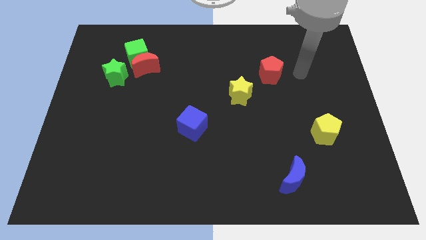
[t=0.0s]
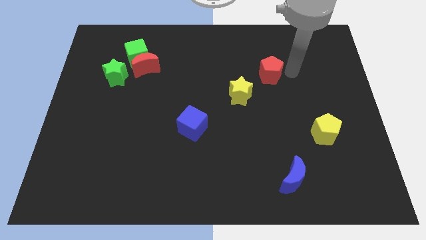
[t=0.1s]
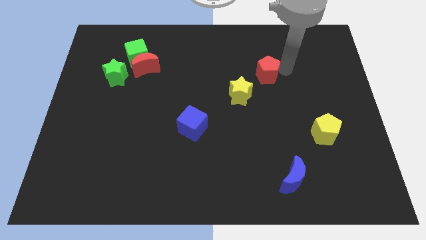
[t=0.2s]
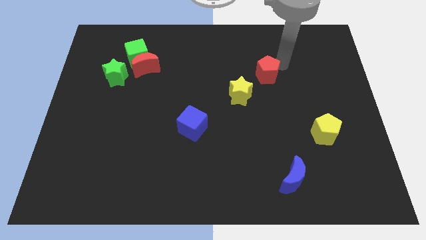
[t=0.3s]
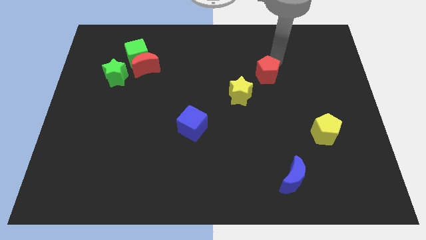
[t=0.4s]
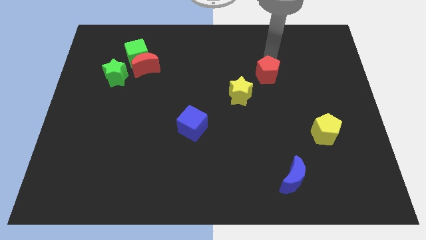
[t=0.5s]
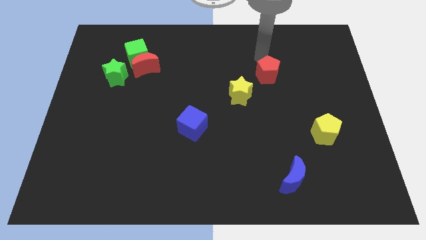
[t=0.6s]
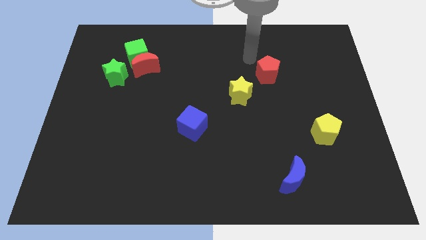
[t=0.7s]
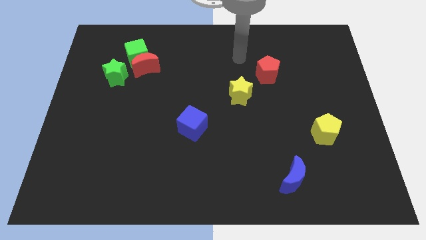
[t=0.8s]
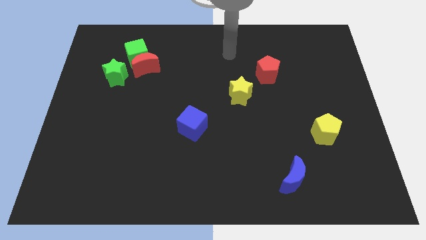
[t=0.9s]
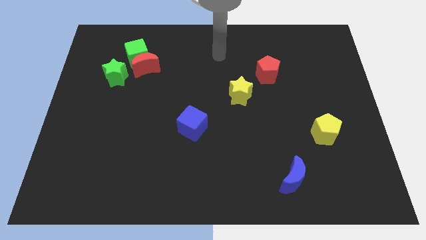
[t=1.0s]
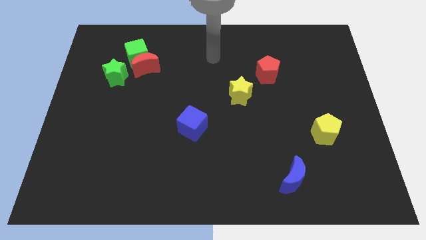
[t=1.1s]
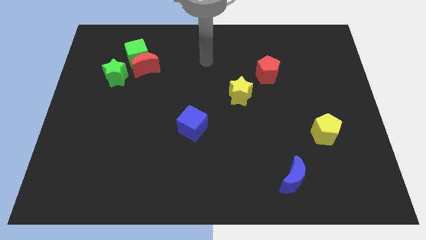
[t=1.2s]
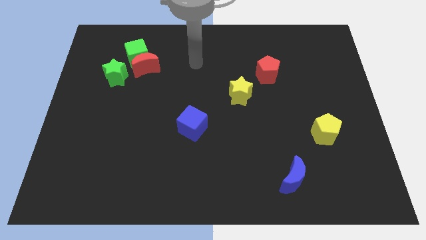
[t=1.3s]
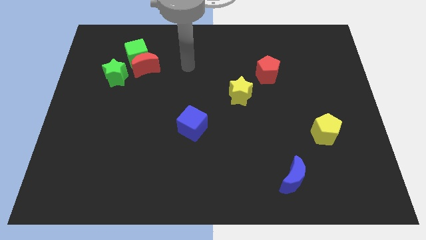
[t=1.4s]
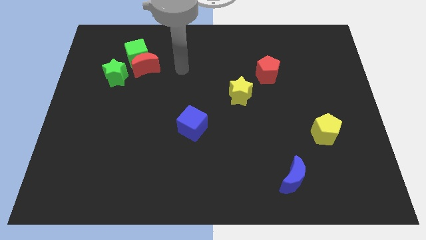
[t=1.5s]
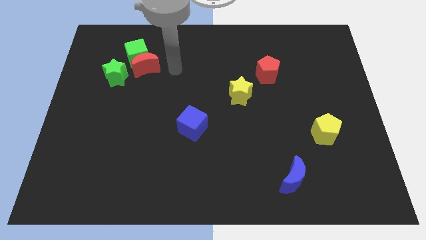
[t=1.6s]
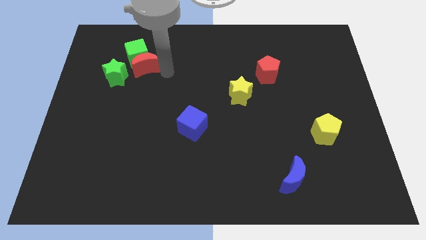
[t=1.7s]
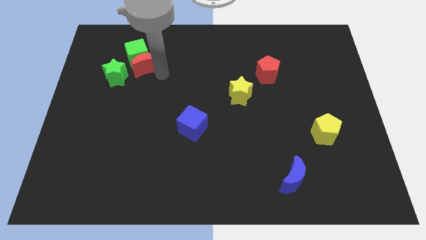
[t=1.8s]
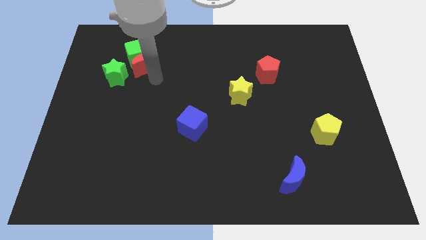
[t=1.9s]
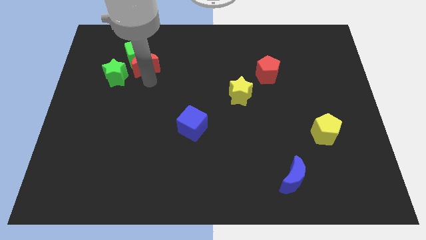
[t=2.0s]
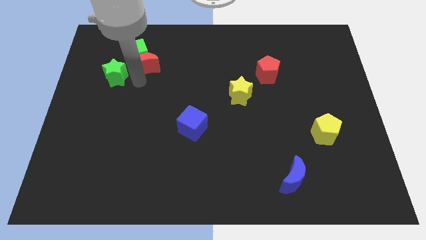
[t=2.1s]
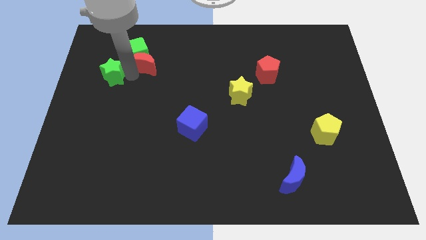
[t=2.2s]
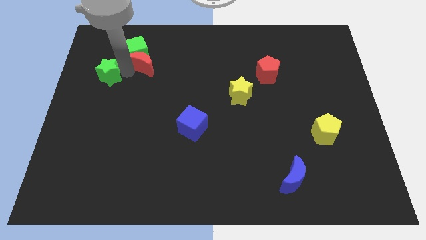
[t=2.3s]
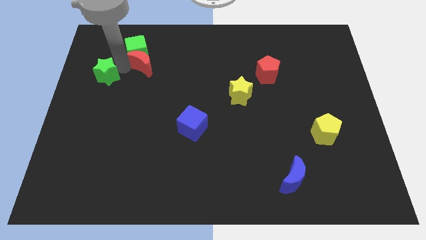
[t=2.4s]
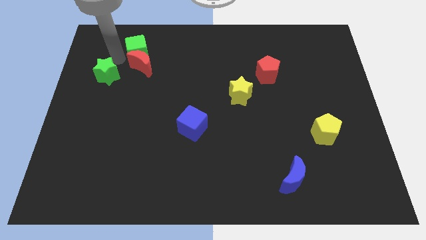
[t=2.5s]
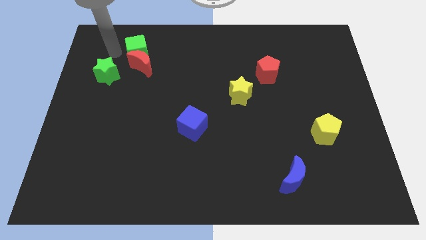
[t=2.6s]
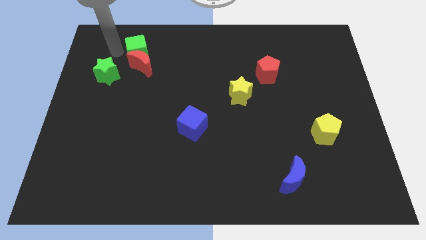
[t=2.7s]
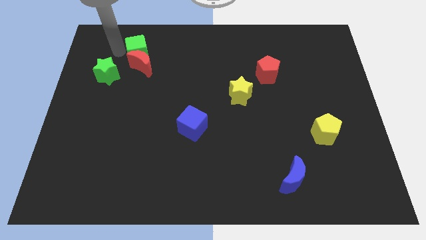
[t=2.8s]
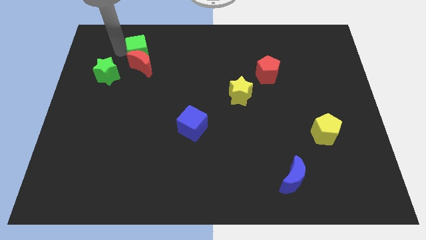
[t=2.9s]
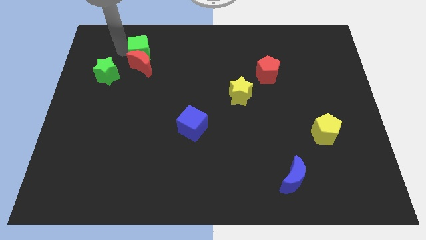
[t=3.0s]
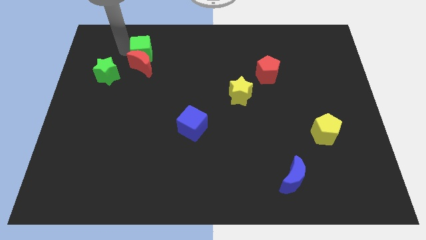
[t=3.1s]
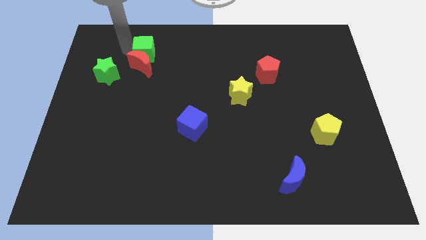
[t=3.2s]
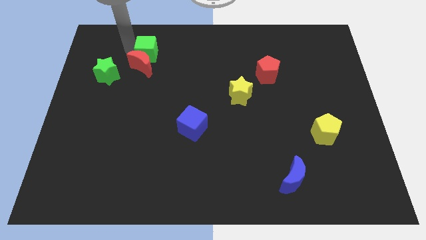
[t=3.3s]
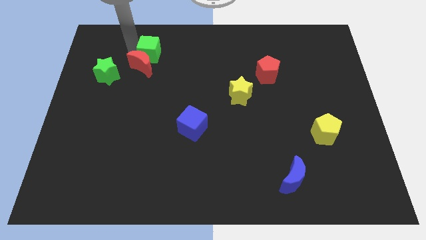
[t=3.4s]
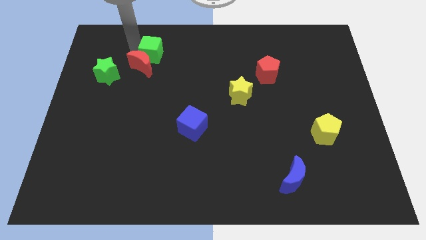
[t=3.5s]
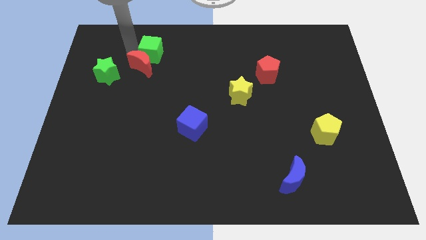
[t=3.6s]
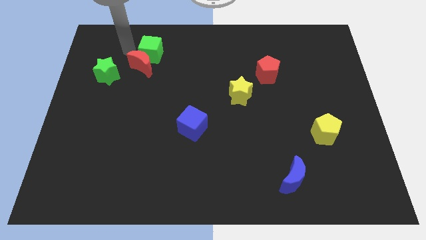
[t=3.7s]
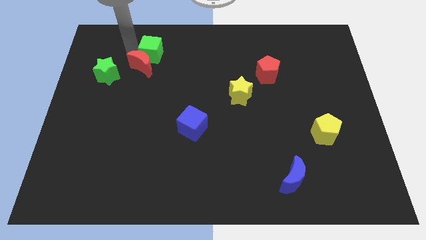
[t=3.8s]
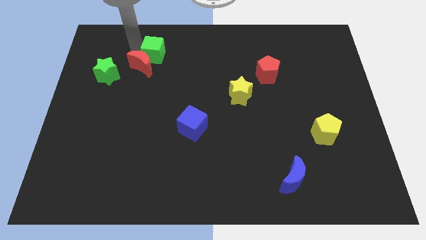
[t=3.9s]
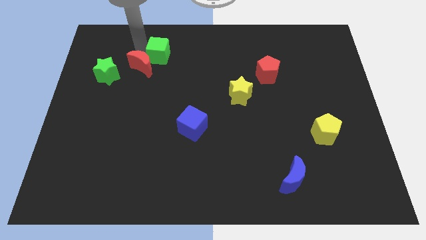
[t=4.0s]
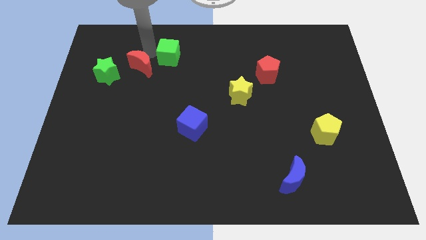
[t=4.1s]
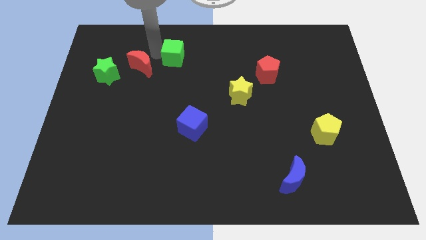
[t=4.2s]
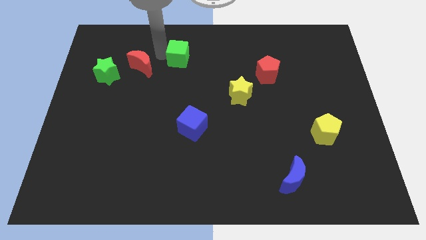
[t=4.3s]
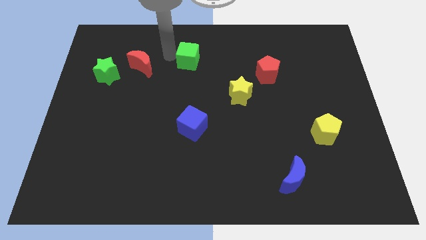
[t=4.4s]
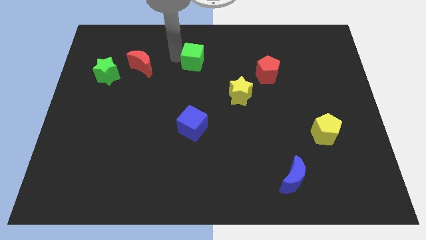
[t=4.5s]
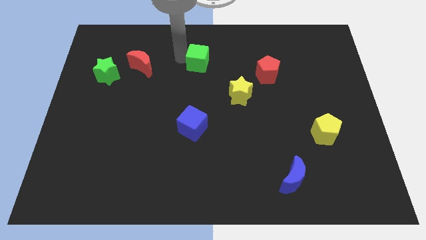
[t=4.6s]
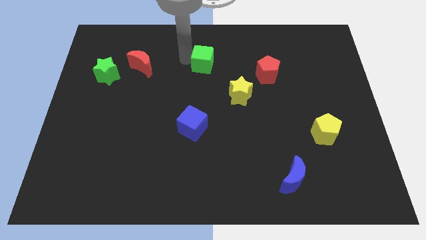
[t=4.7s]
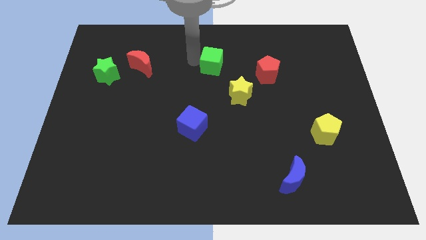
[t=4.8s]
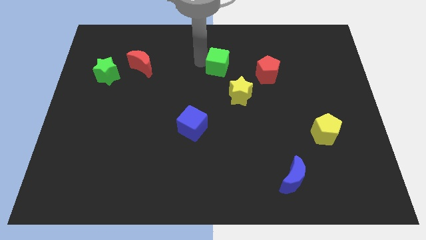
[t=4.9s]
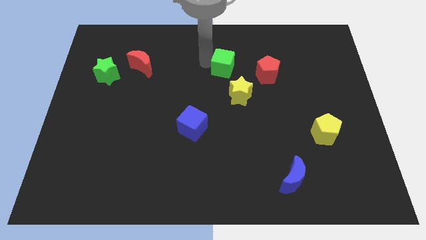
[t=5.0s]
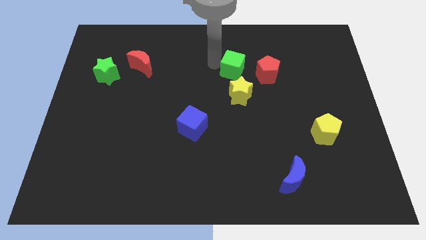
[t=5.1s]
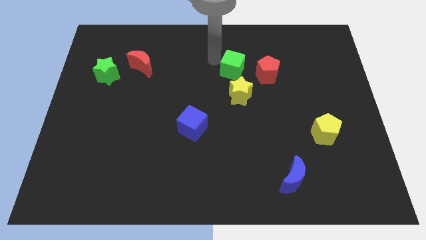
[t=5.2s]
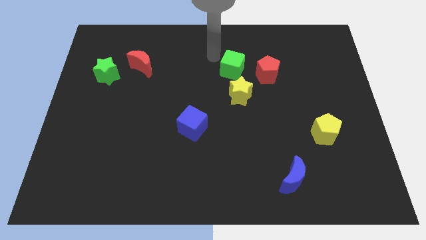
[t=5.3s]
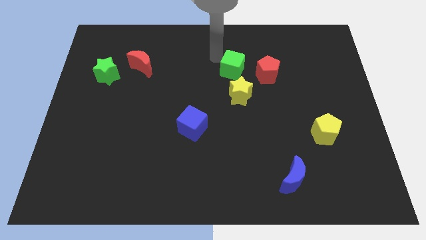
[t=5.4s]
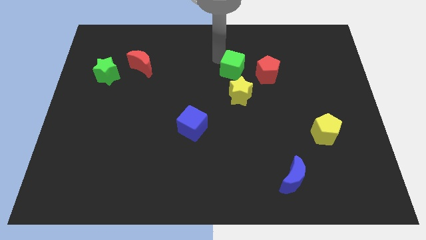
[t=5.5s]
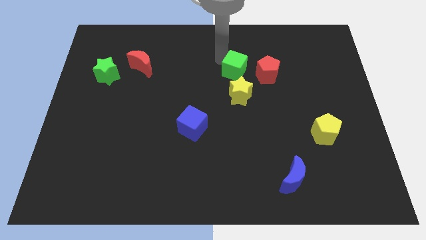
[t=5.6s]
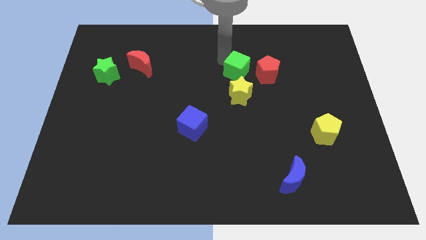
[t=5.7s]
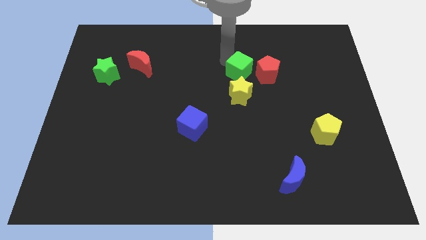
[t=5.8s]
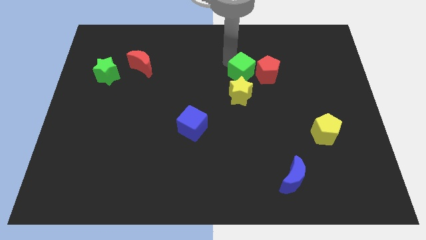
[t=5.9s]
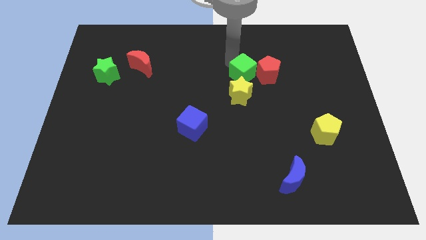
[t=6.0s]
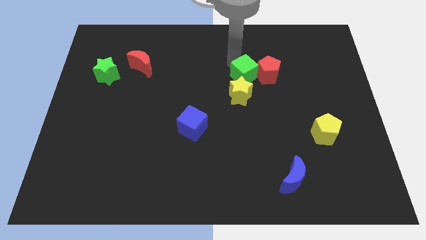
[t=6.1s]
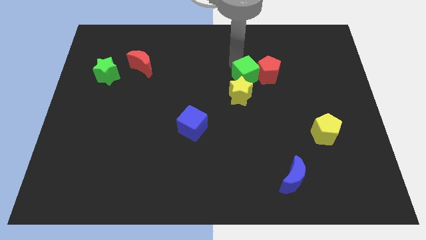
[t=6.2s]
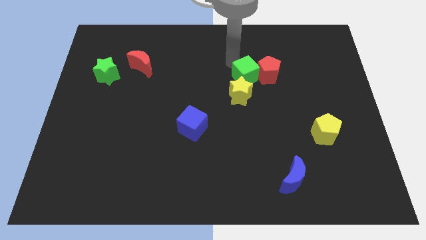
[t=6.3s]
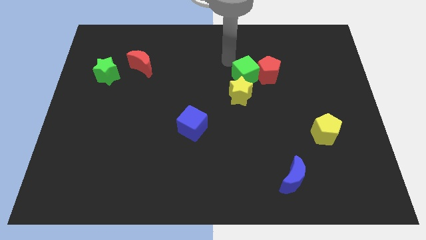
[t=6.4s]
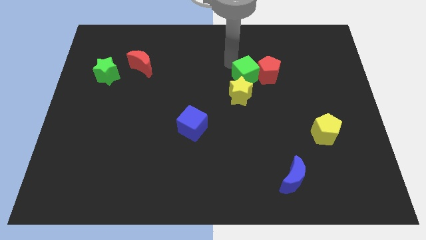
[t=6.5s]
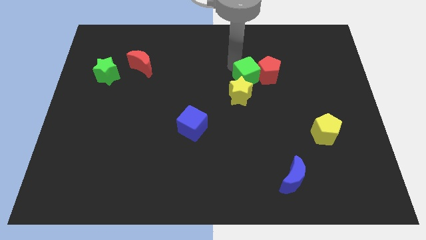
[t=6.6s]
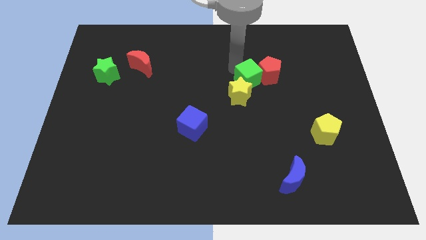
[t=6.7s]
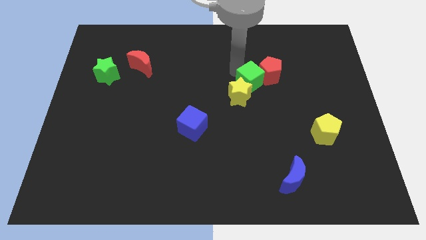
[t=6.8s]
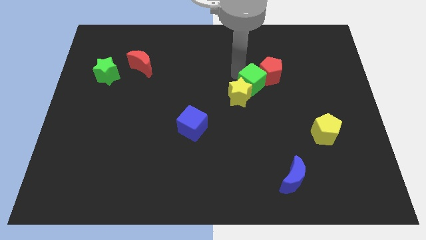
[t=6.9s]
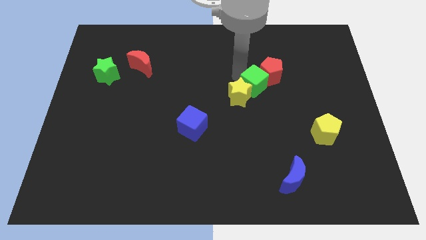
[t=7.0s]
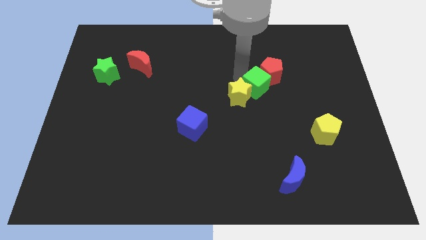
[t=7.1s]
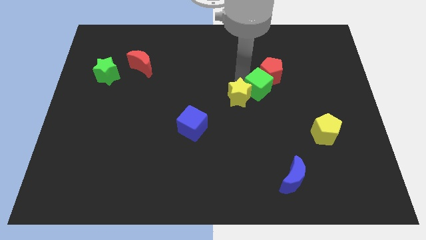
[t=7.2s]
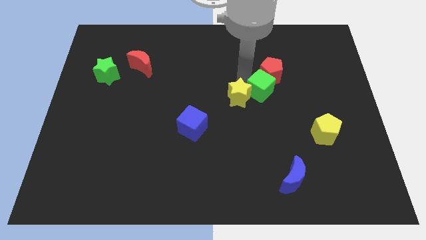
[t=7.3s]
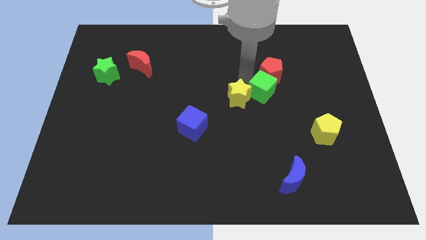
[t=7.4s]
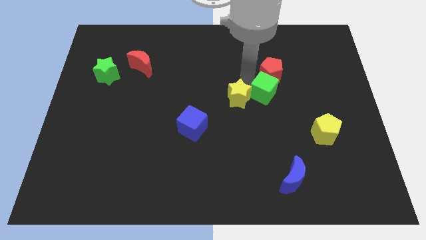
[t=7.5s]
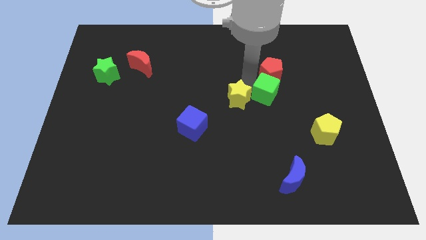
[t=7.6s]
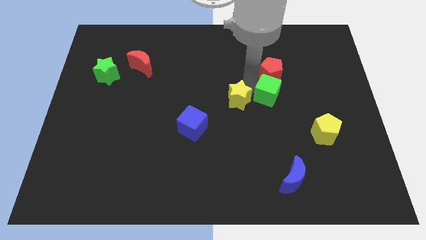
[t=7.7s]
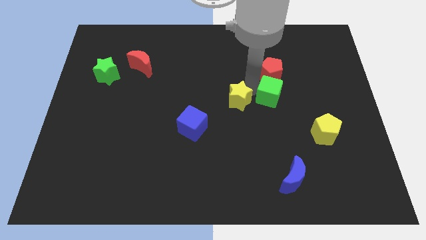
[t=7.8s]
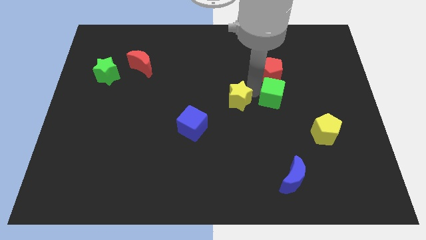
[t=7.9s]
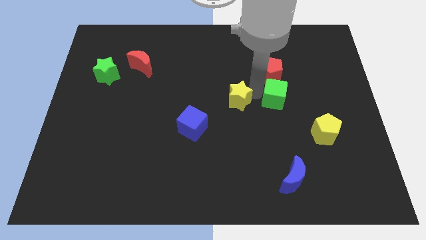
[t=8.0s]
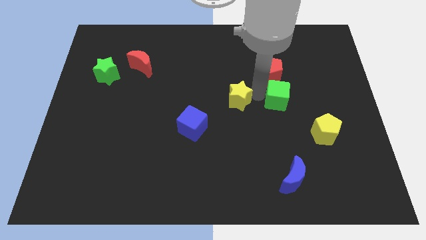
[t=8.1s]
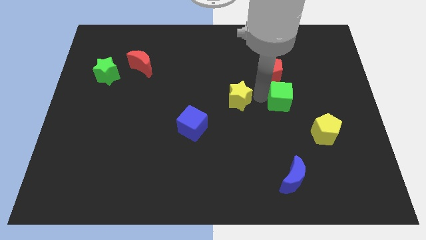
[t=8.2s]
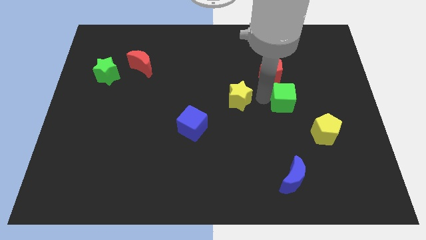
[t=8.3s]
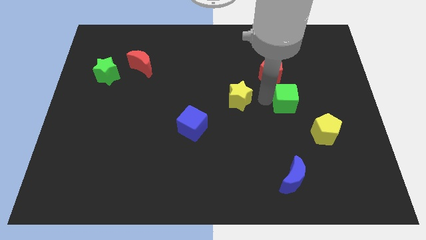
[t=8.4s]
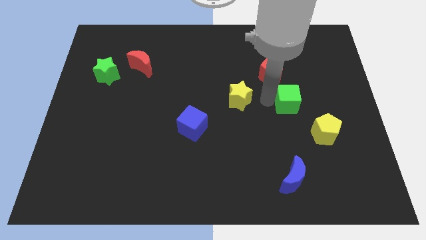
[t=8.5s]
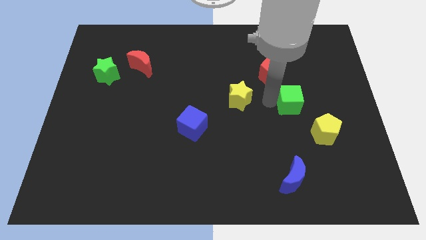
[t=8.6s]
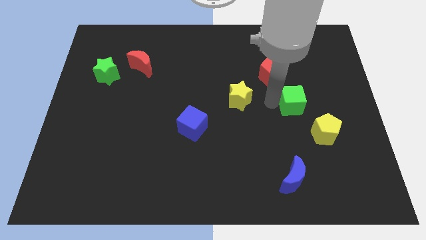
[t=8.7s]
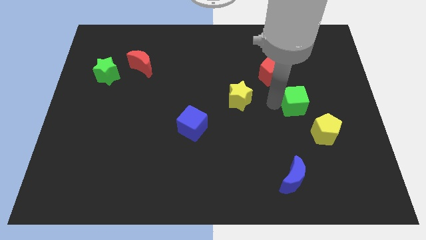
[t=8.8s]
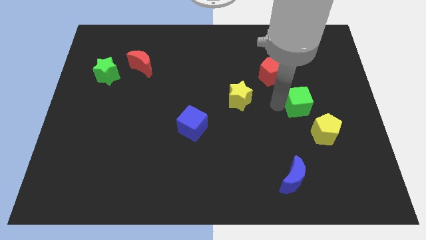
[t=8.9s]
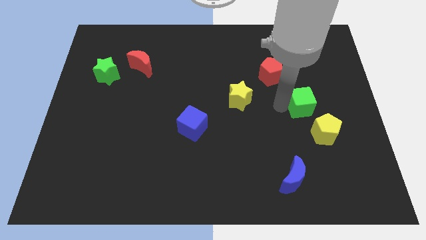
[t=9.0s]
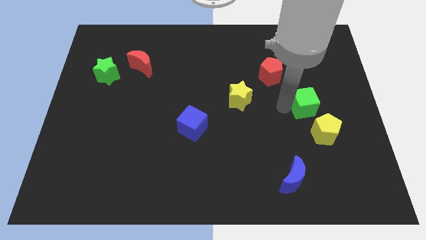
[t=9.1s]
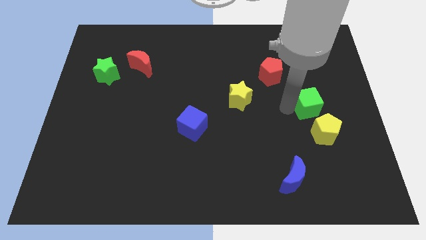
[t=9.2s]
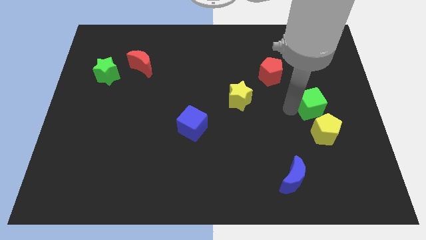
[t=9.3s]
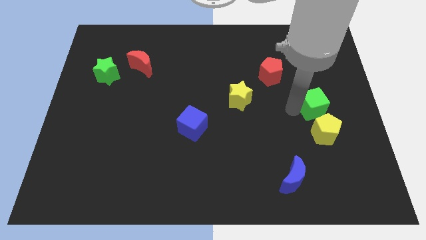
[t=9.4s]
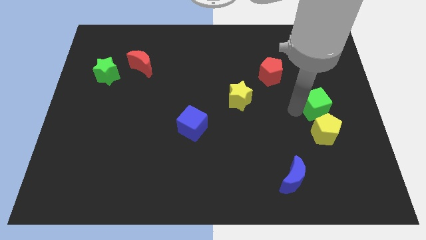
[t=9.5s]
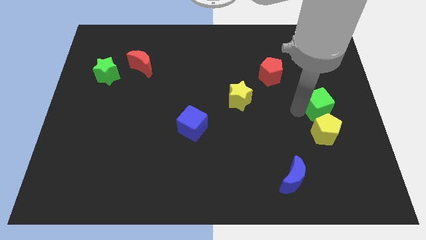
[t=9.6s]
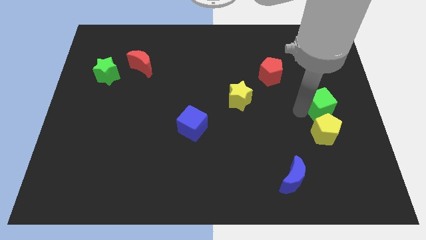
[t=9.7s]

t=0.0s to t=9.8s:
put the green cube to the center right
